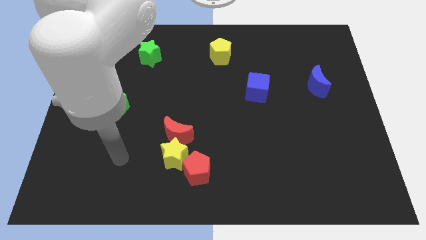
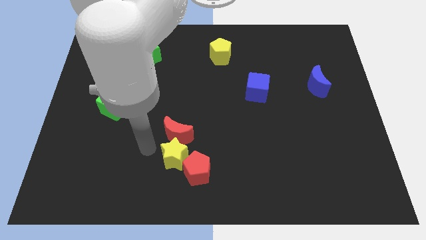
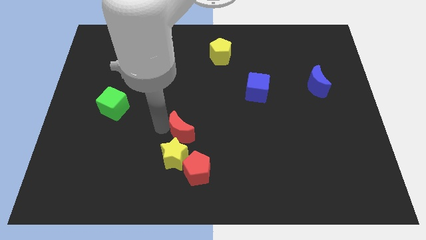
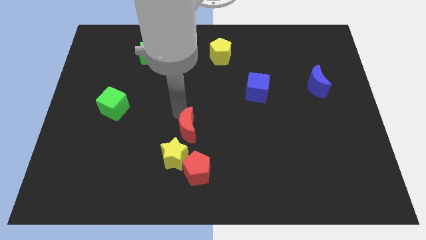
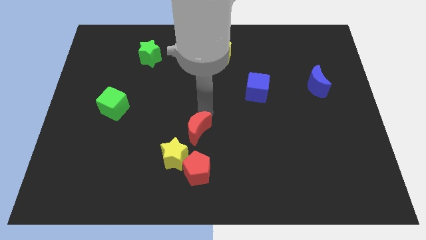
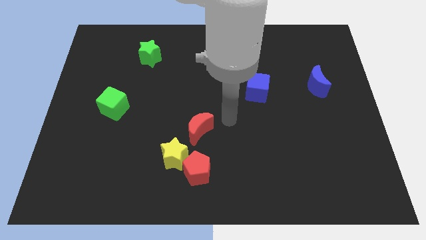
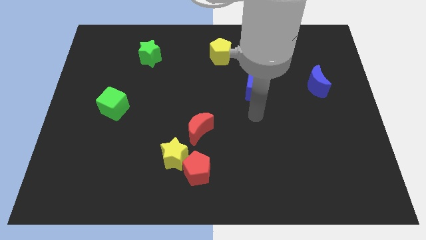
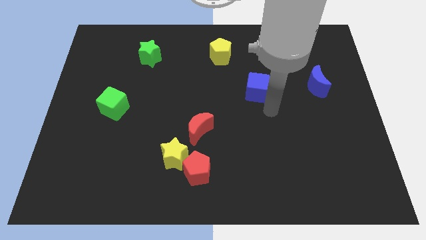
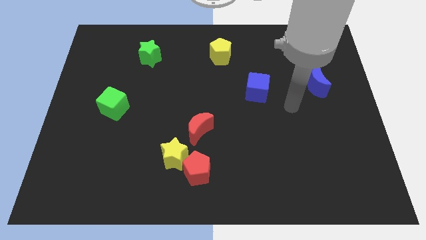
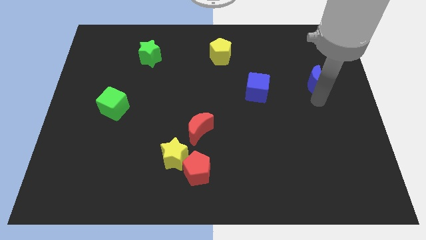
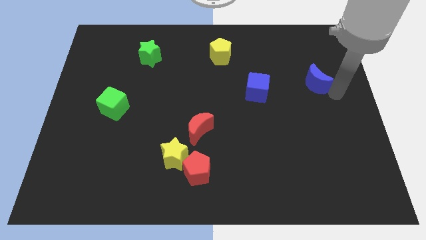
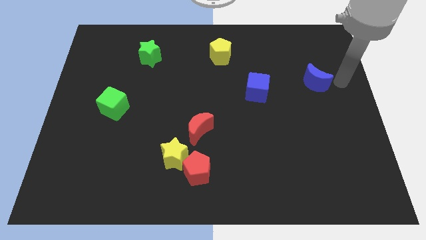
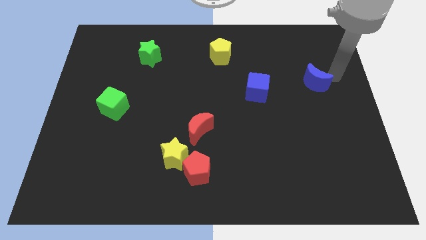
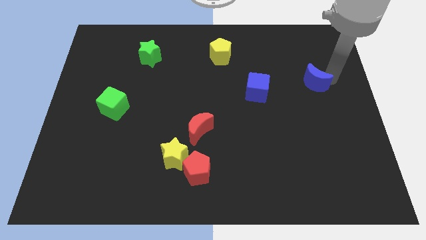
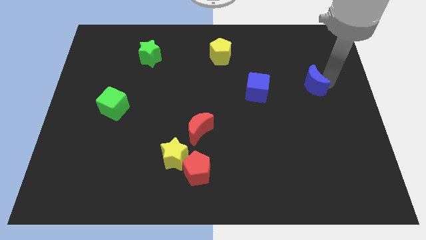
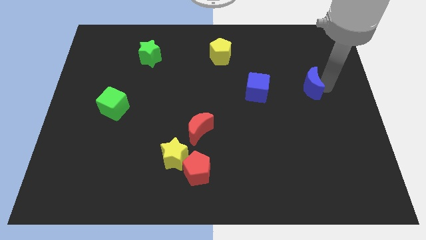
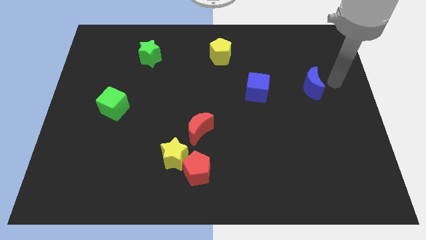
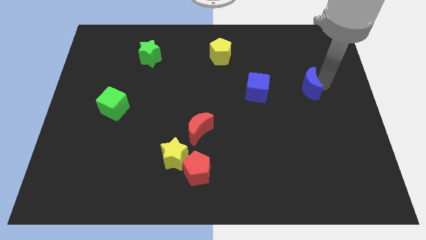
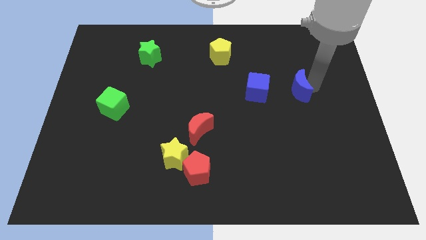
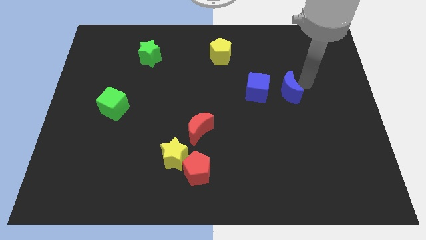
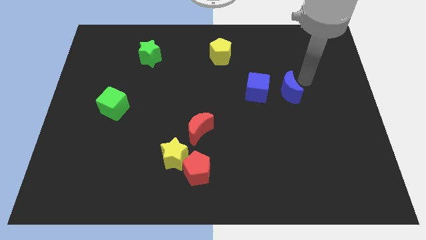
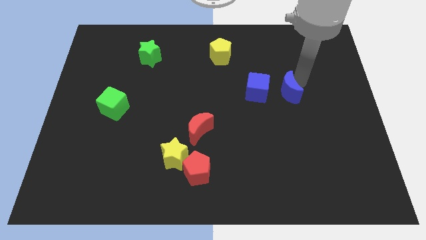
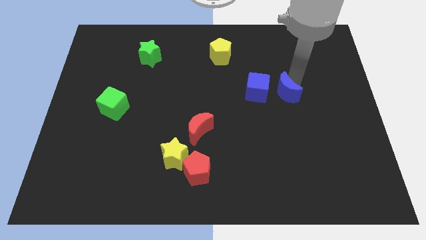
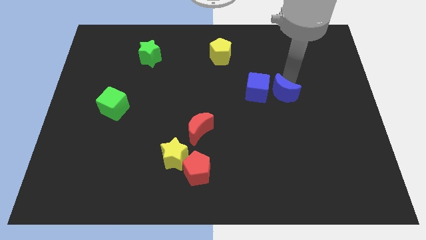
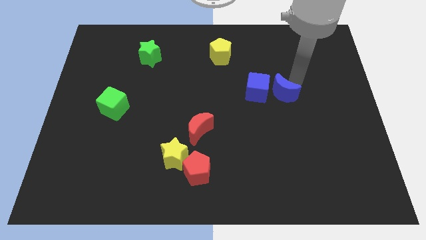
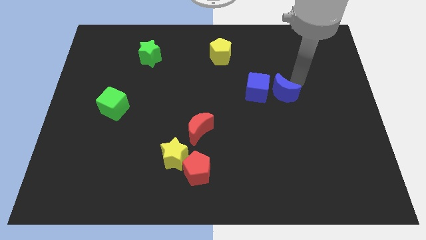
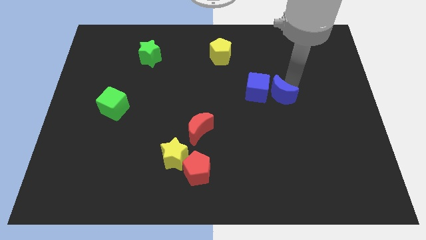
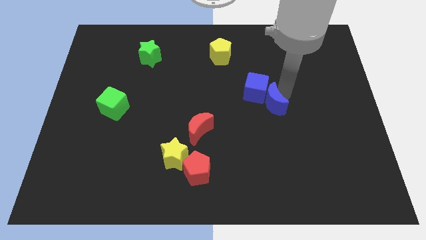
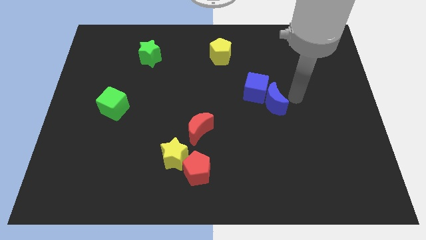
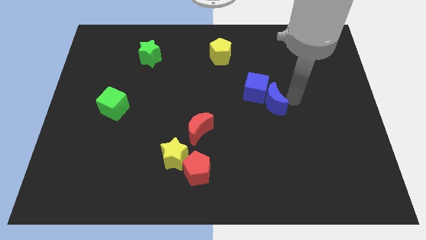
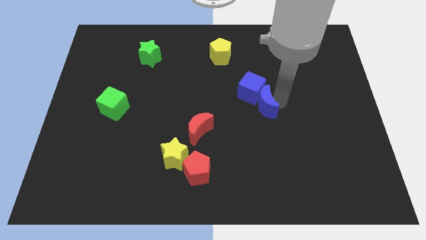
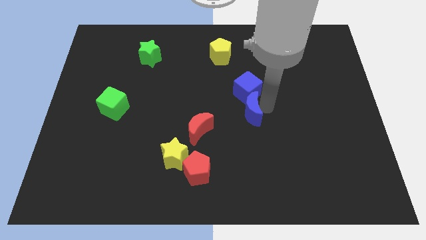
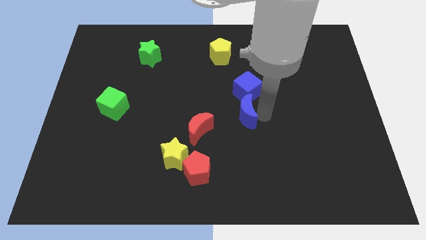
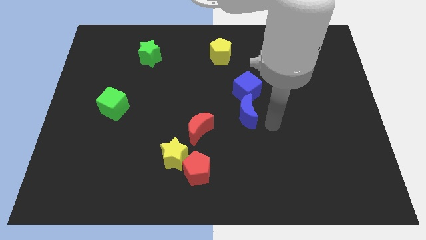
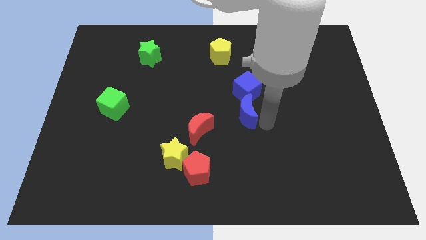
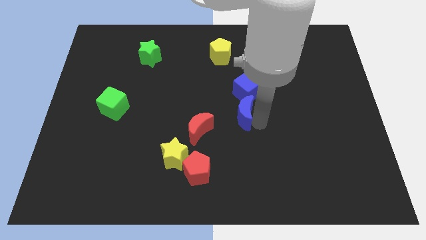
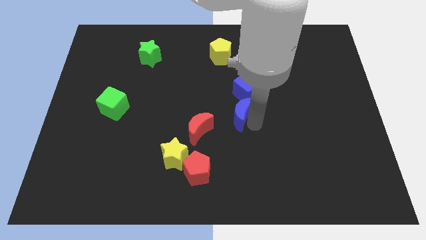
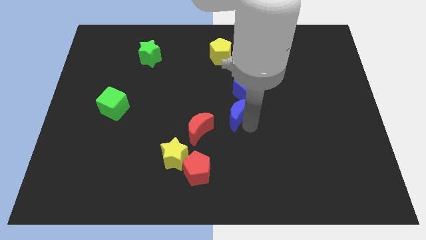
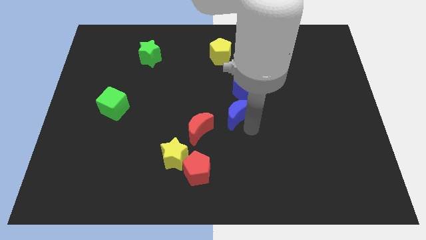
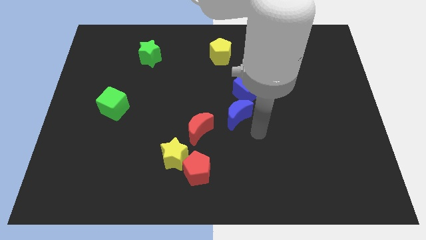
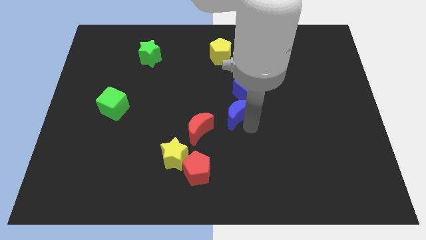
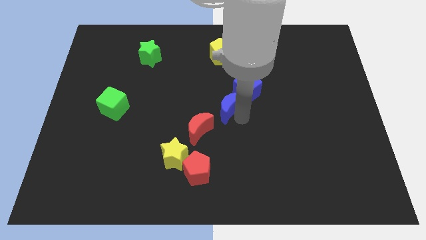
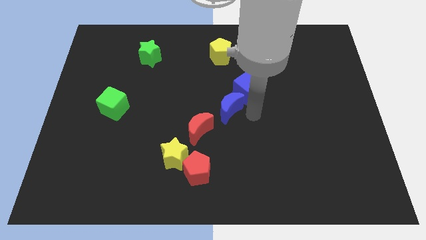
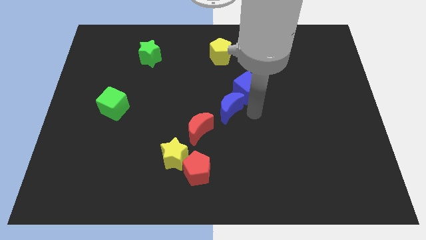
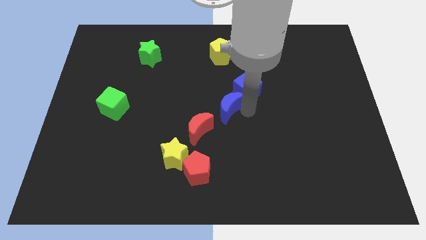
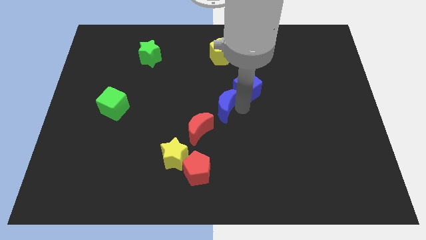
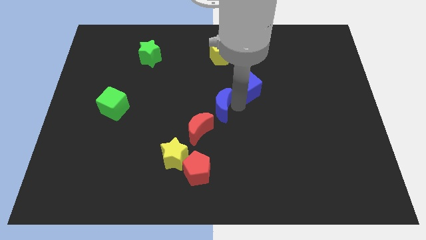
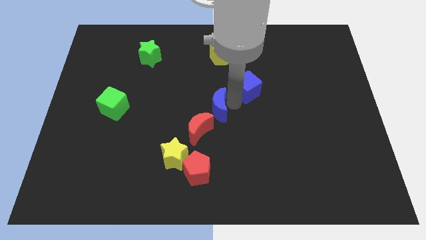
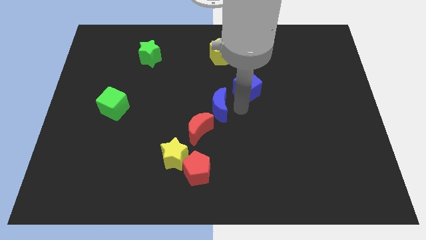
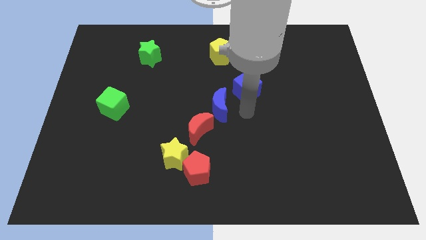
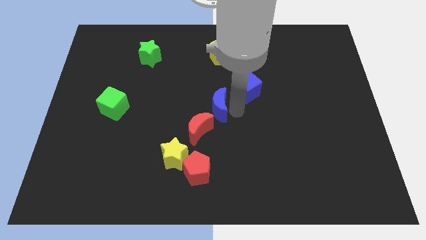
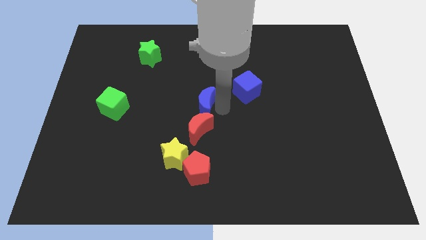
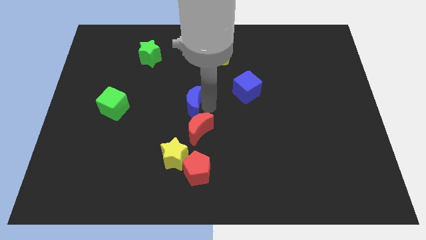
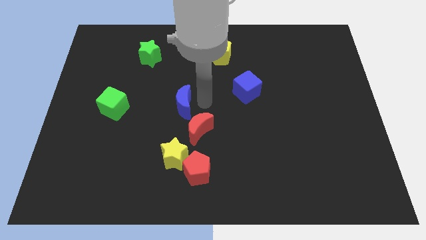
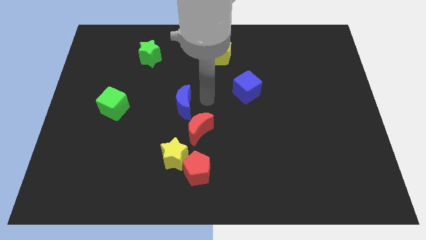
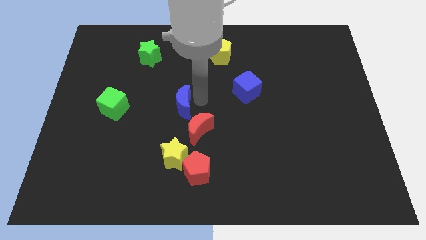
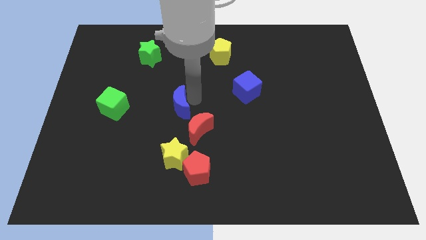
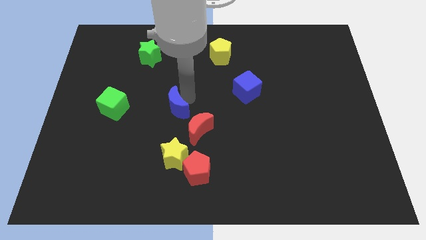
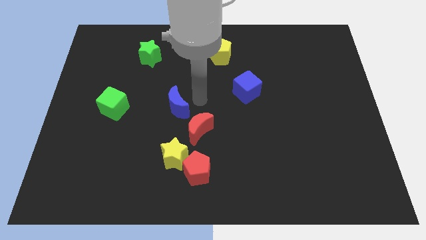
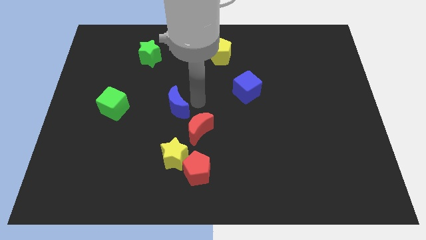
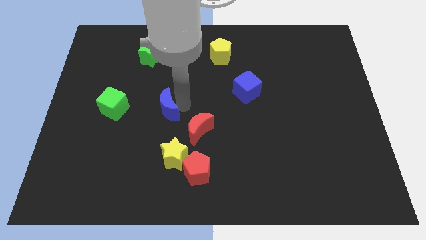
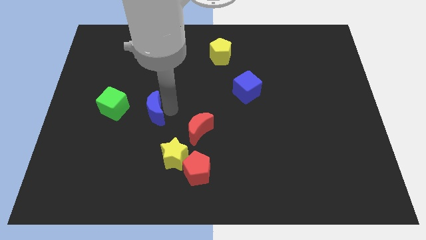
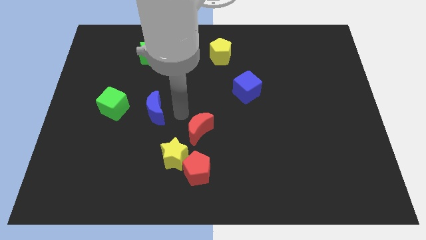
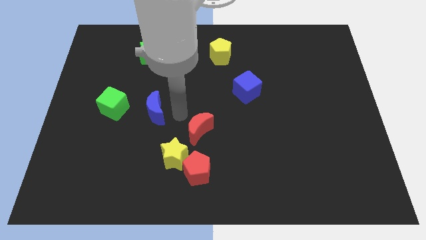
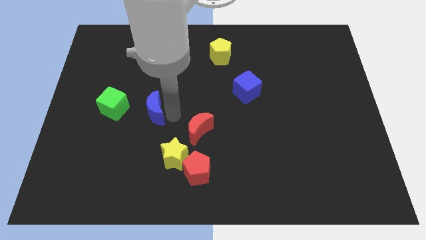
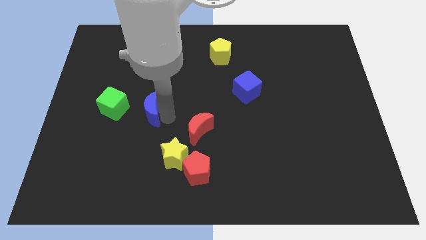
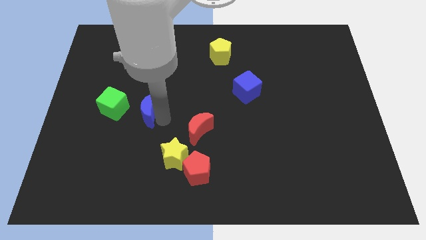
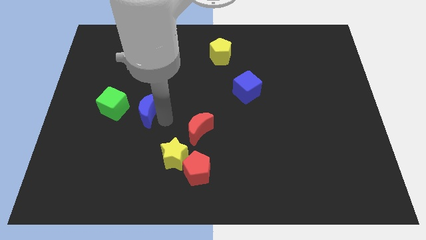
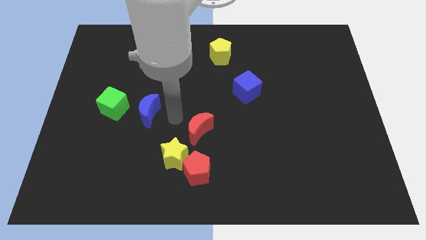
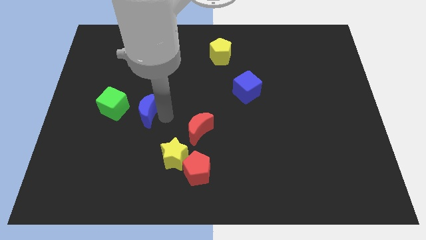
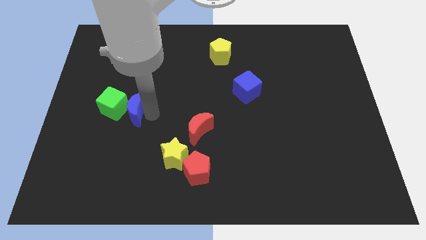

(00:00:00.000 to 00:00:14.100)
put the blue moon next to the green cube

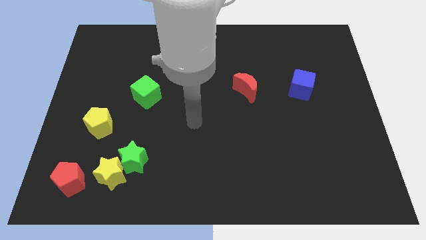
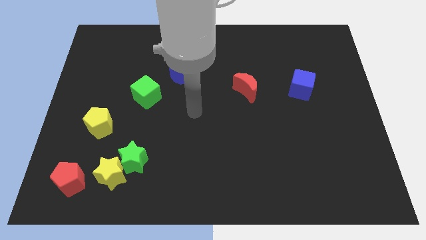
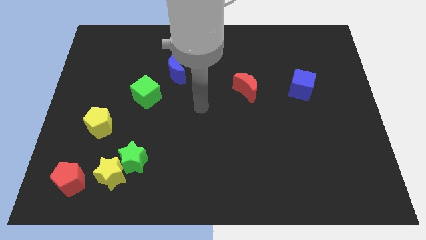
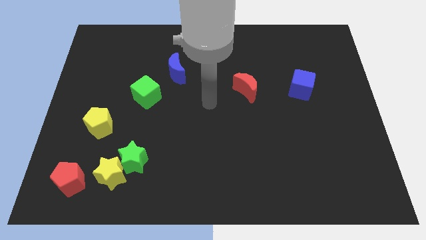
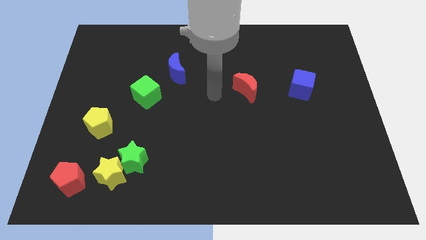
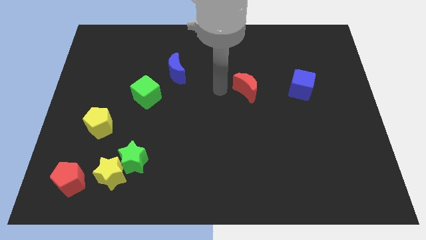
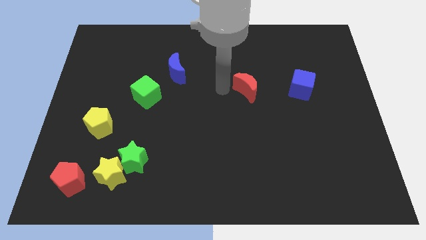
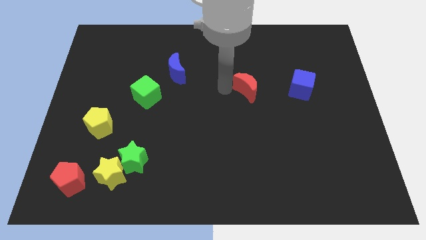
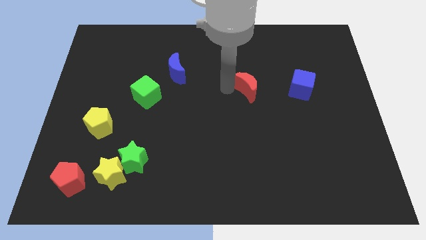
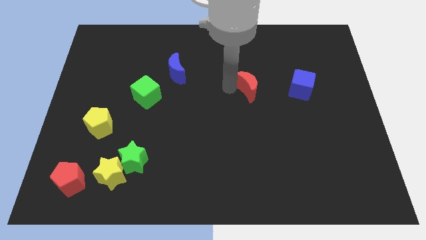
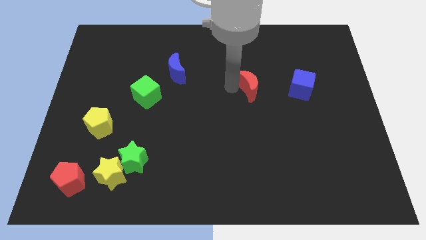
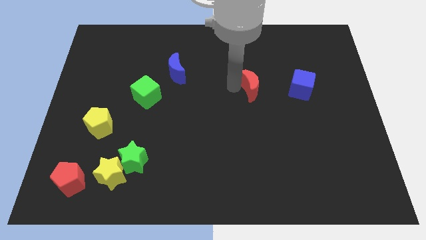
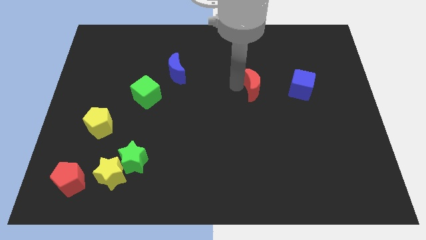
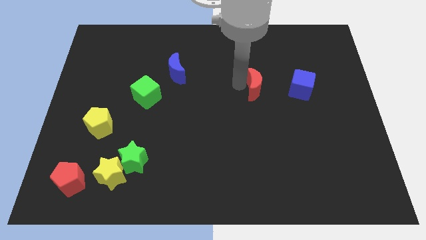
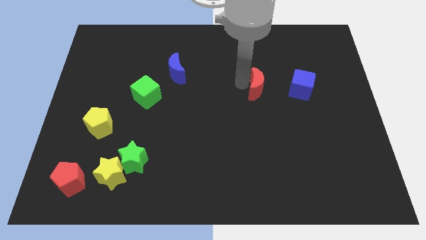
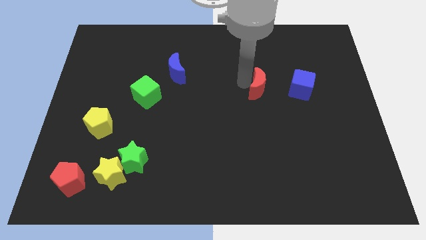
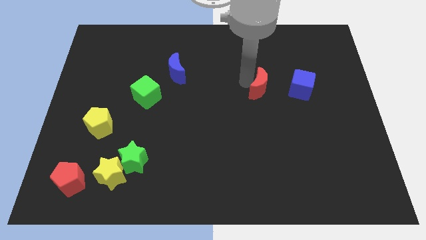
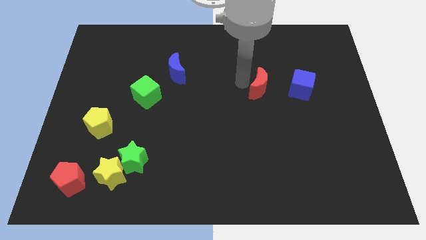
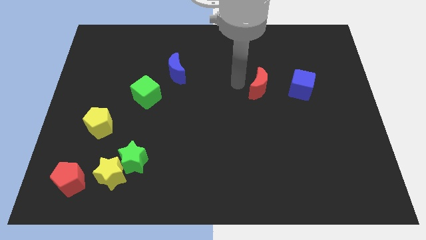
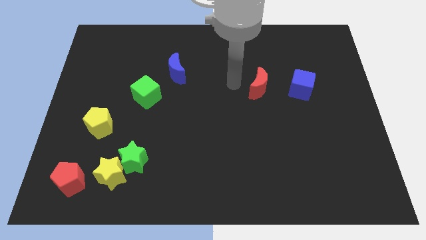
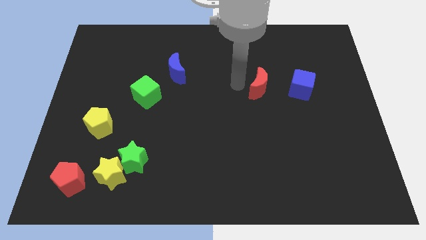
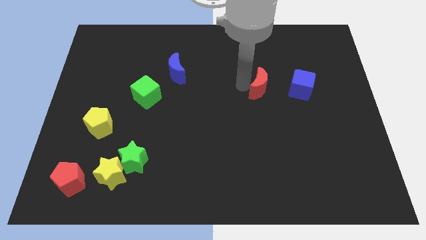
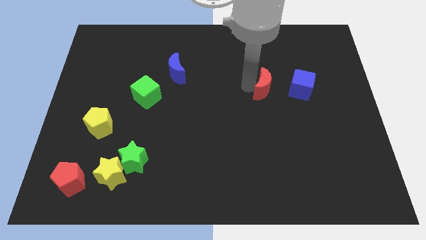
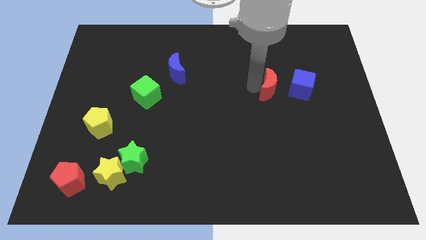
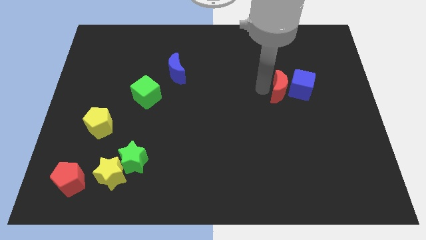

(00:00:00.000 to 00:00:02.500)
slide the red moon next to the blue cube
